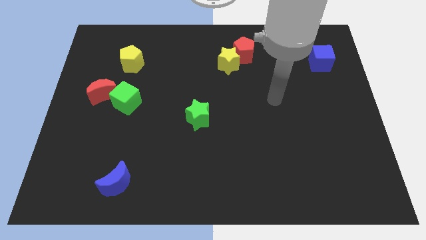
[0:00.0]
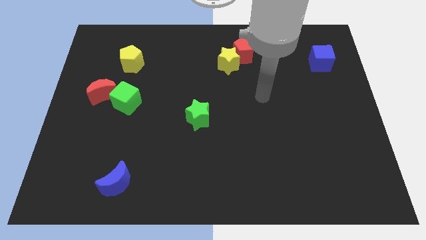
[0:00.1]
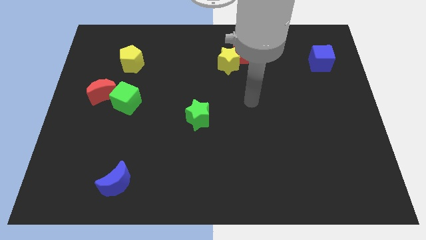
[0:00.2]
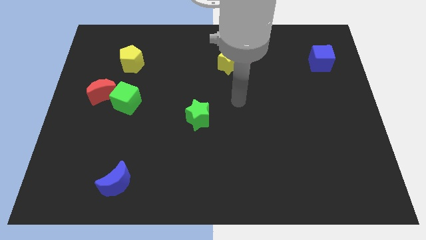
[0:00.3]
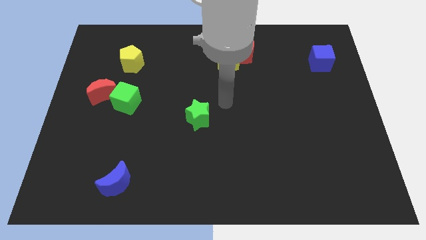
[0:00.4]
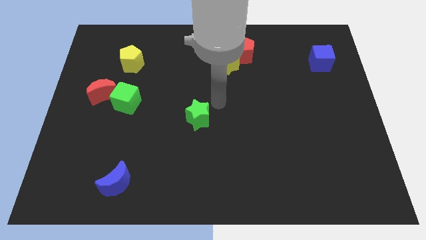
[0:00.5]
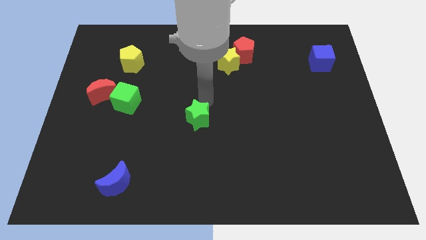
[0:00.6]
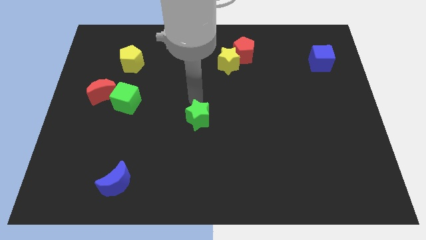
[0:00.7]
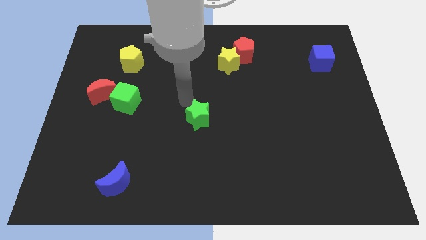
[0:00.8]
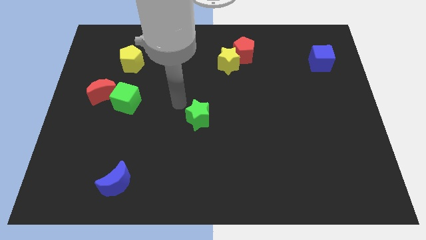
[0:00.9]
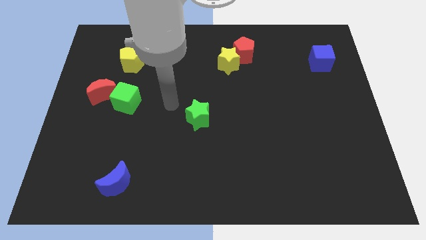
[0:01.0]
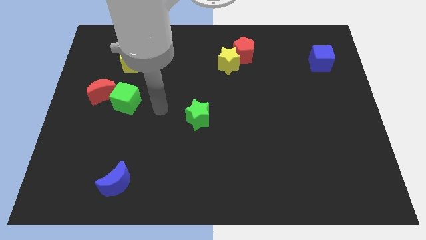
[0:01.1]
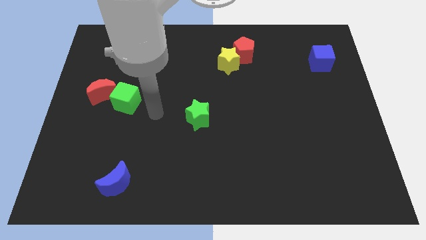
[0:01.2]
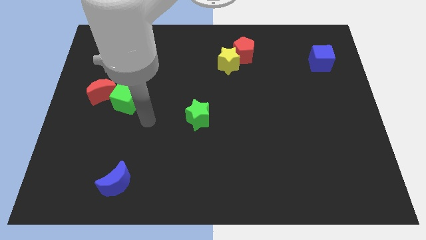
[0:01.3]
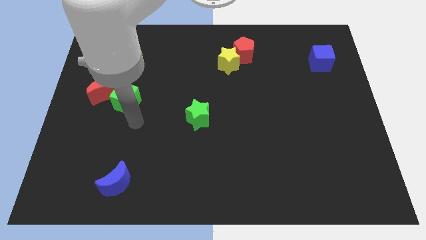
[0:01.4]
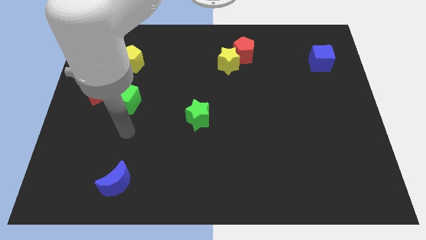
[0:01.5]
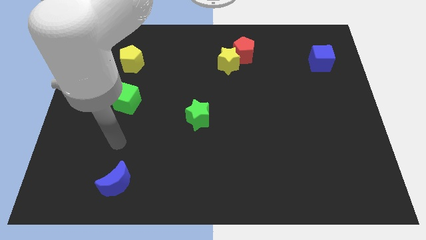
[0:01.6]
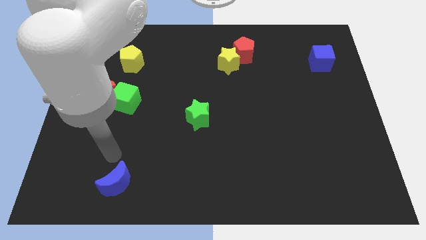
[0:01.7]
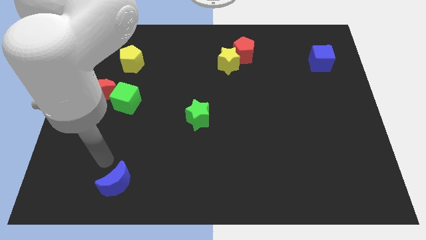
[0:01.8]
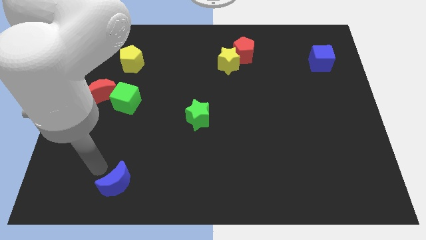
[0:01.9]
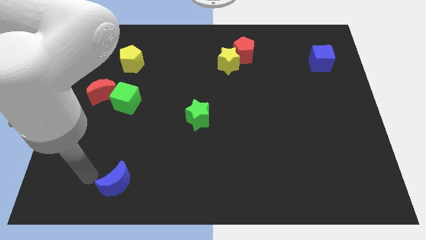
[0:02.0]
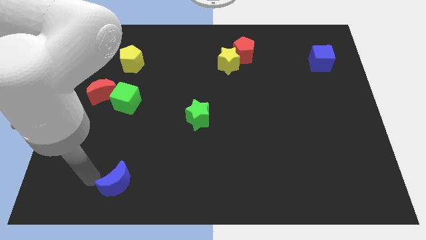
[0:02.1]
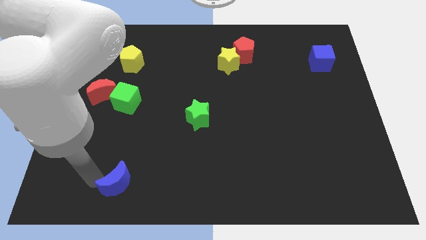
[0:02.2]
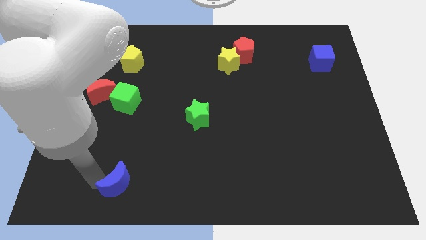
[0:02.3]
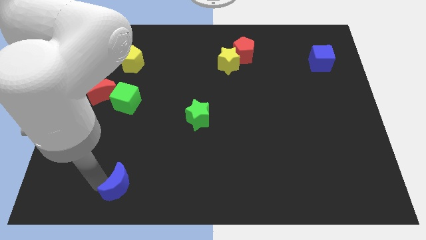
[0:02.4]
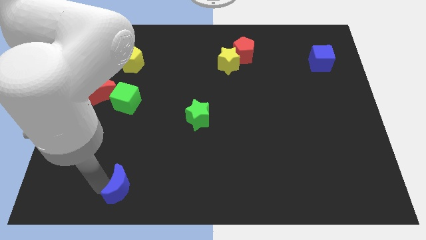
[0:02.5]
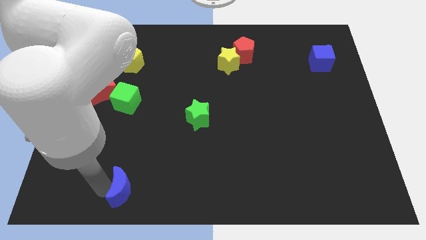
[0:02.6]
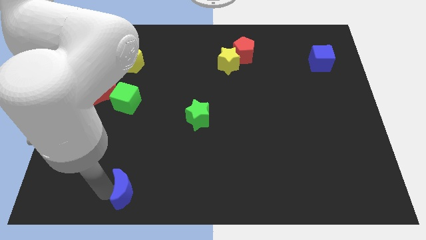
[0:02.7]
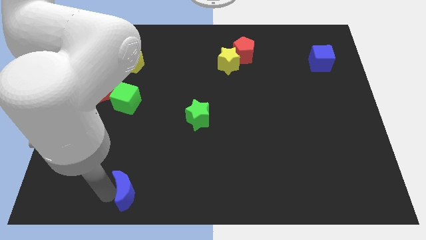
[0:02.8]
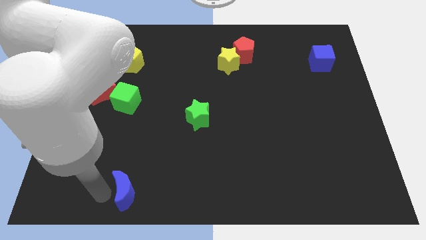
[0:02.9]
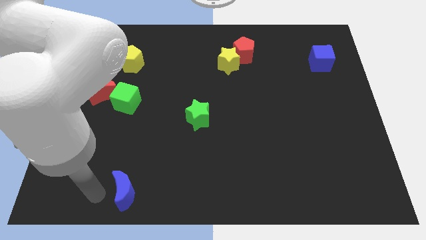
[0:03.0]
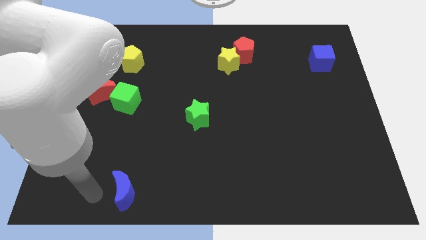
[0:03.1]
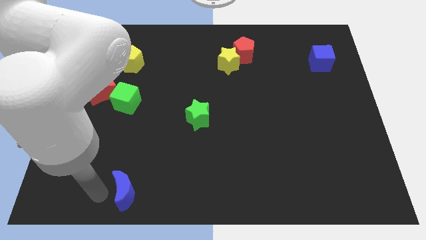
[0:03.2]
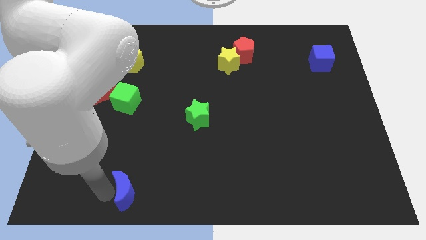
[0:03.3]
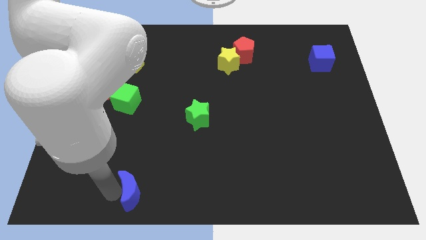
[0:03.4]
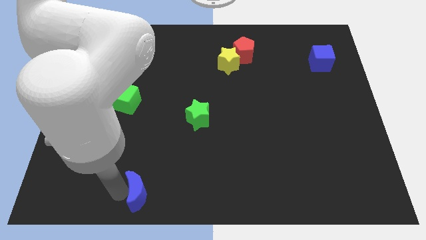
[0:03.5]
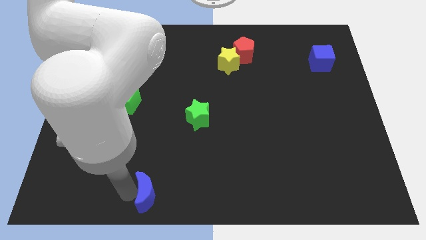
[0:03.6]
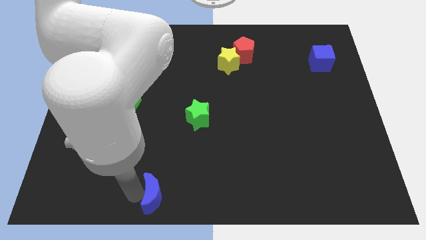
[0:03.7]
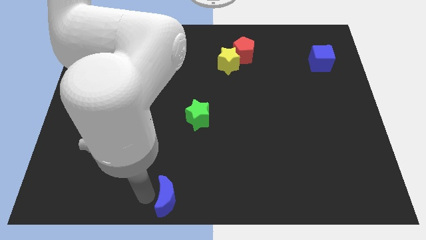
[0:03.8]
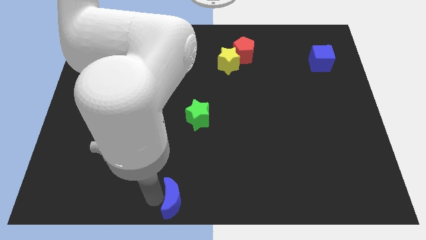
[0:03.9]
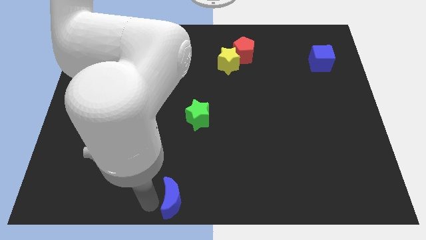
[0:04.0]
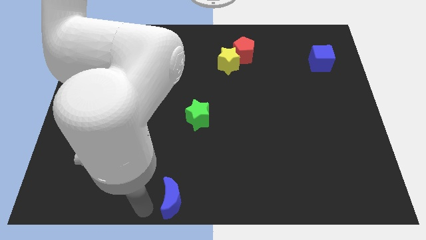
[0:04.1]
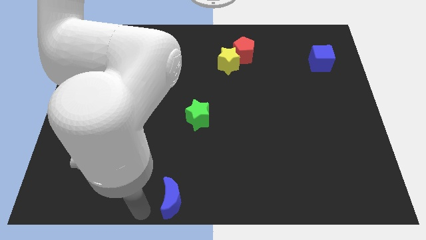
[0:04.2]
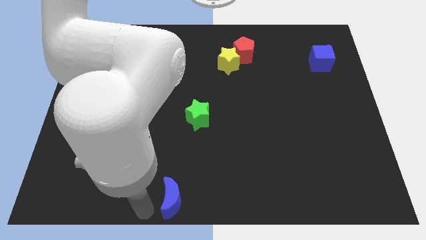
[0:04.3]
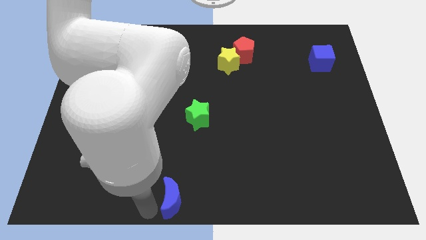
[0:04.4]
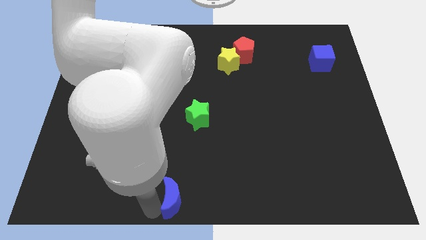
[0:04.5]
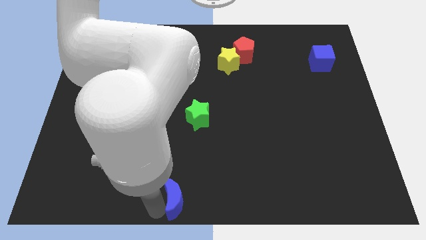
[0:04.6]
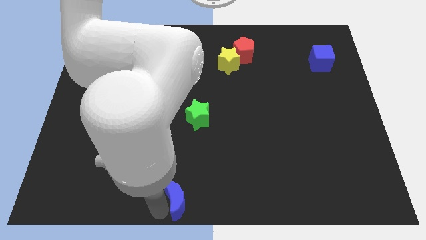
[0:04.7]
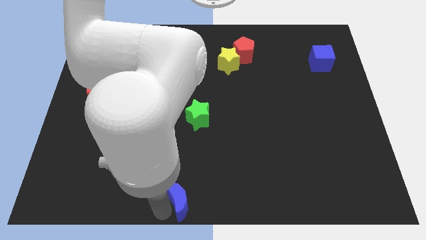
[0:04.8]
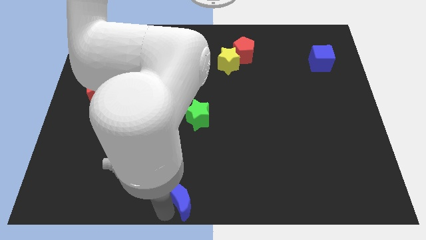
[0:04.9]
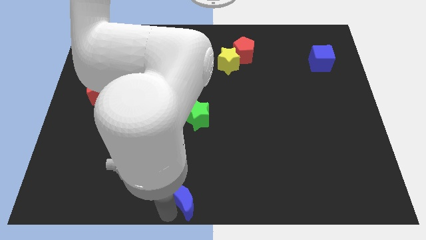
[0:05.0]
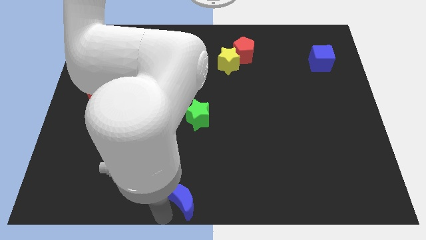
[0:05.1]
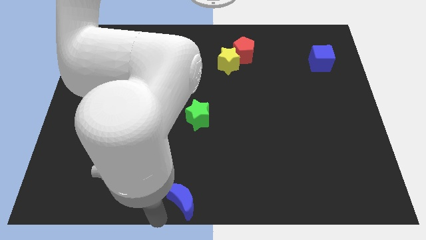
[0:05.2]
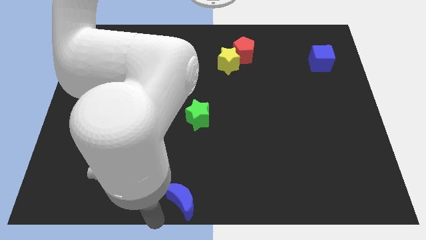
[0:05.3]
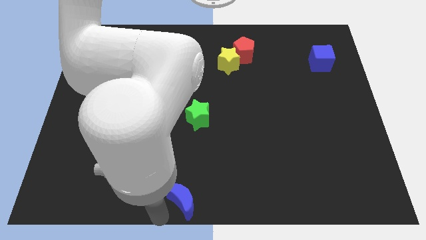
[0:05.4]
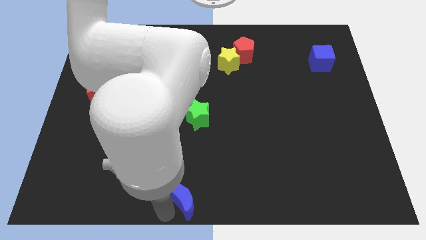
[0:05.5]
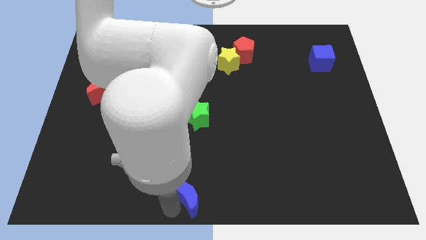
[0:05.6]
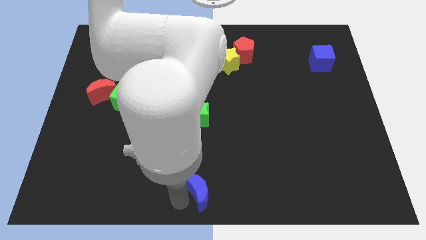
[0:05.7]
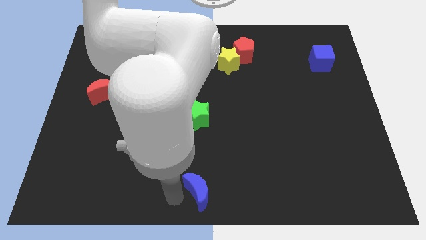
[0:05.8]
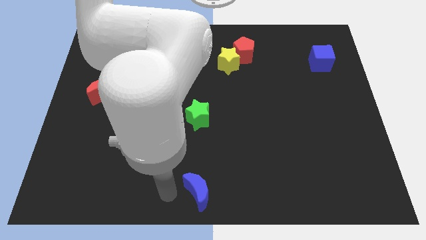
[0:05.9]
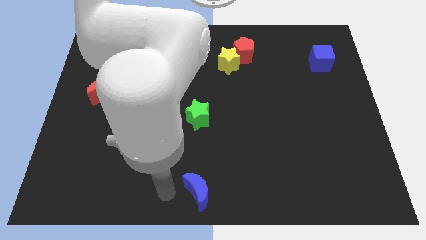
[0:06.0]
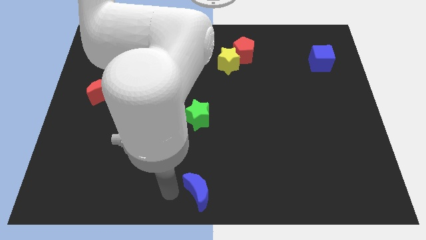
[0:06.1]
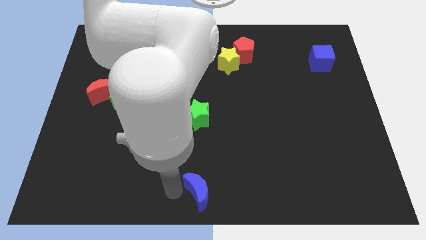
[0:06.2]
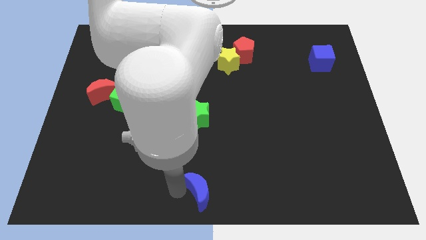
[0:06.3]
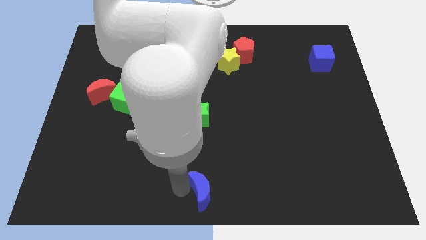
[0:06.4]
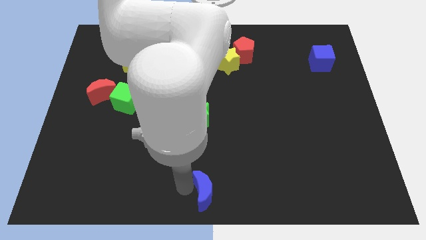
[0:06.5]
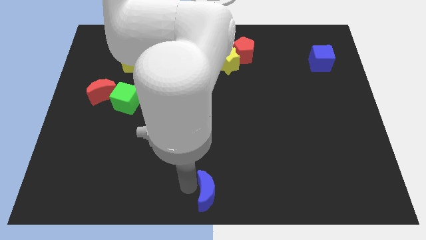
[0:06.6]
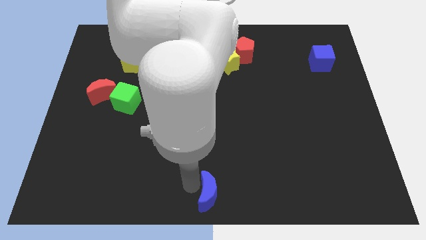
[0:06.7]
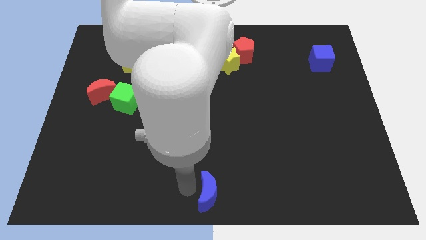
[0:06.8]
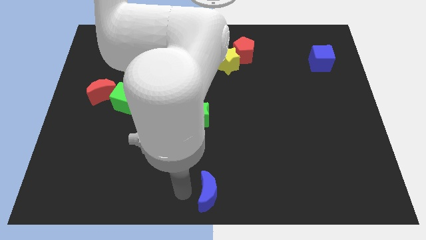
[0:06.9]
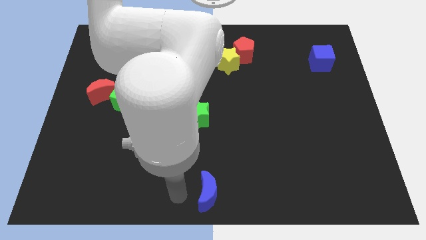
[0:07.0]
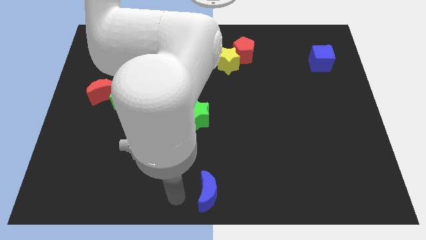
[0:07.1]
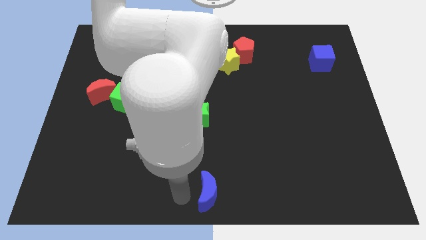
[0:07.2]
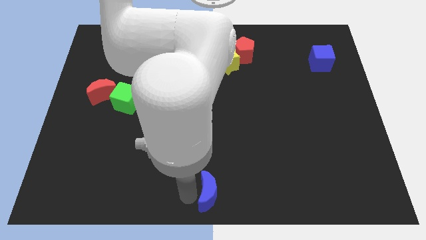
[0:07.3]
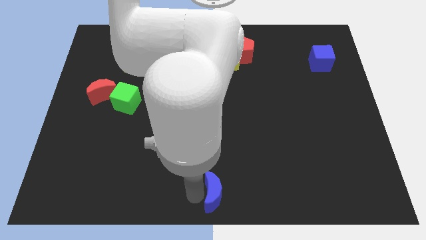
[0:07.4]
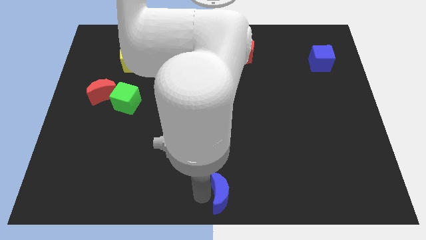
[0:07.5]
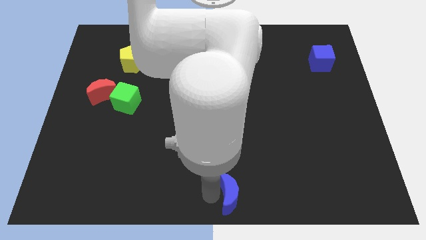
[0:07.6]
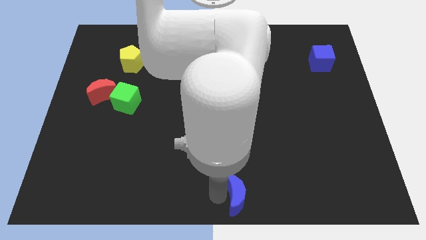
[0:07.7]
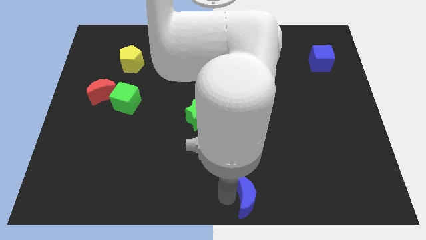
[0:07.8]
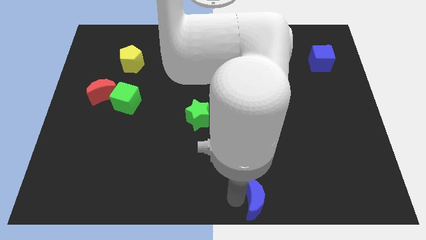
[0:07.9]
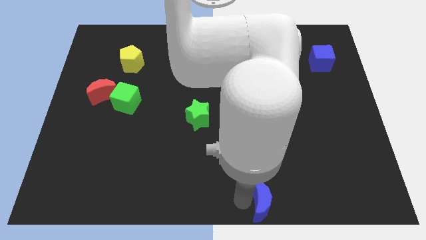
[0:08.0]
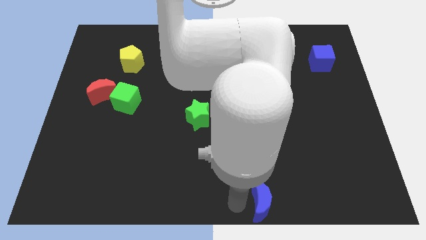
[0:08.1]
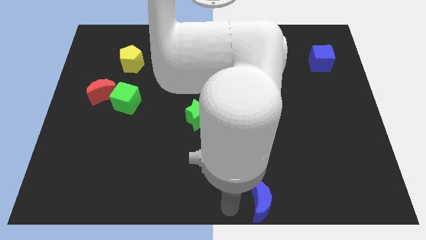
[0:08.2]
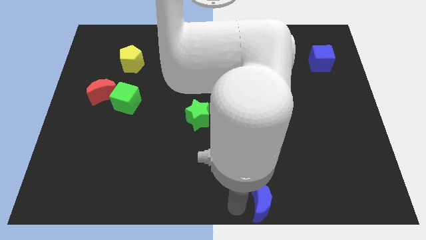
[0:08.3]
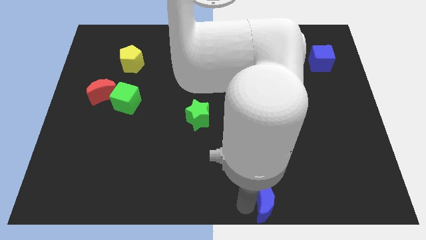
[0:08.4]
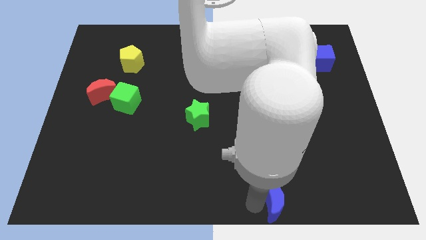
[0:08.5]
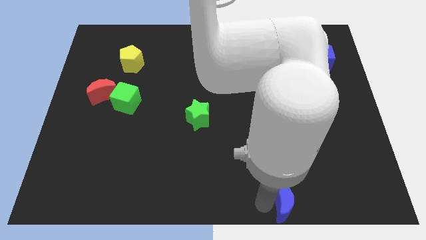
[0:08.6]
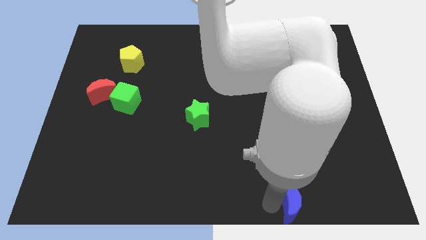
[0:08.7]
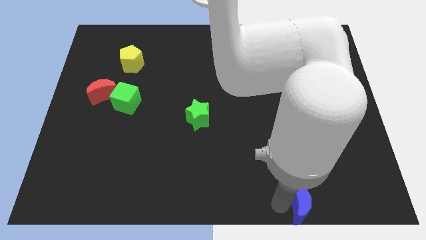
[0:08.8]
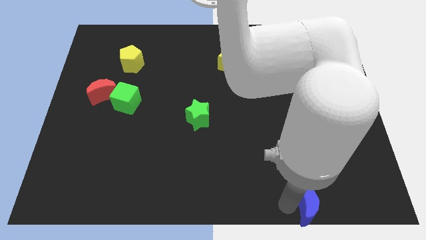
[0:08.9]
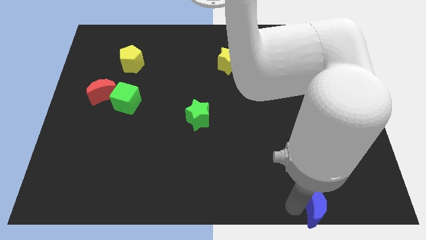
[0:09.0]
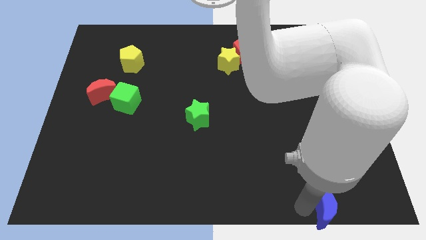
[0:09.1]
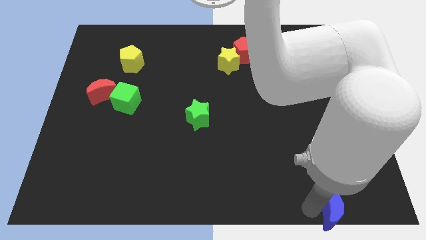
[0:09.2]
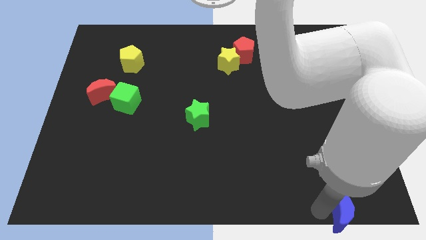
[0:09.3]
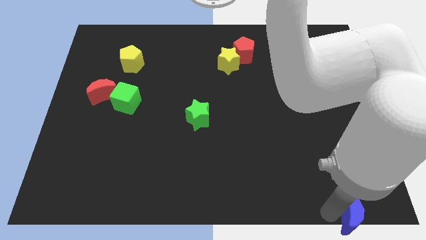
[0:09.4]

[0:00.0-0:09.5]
push the blue moon to the bottom right of the board
